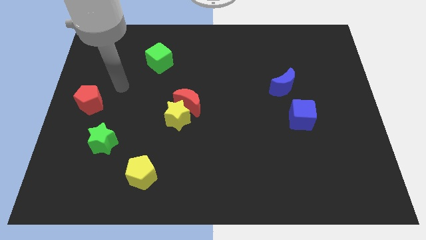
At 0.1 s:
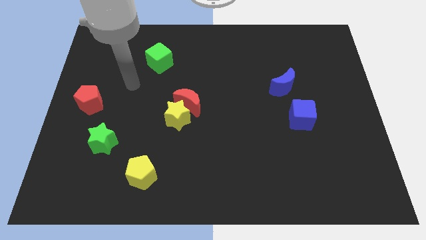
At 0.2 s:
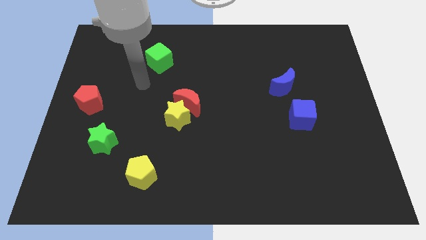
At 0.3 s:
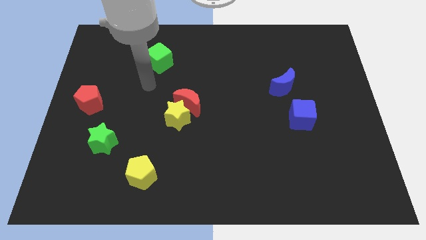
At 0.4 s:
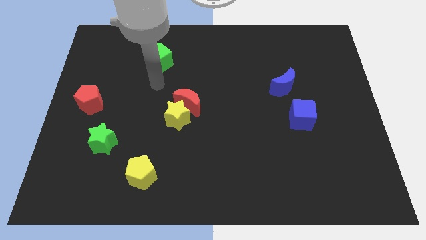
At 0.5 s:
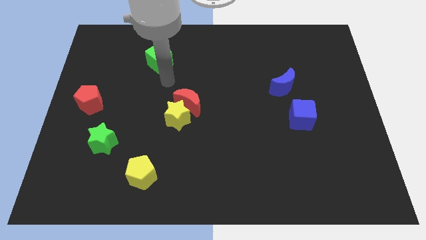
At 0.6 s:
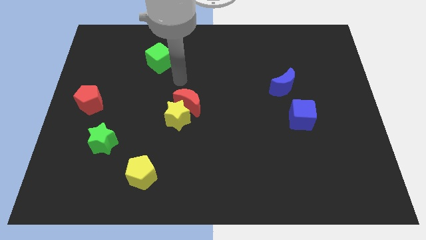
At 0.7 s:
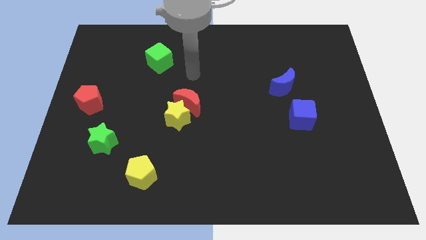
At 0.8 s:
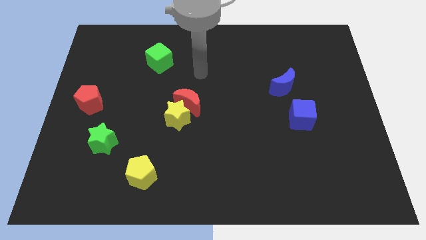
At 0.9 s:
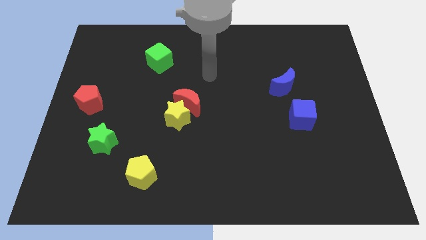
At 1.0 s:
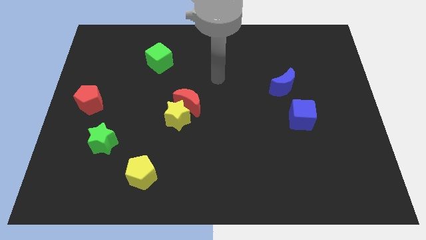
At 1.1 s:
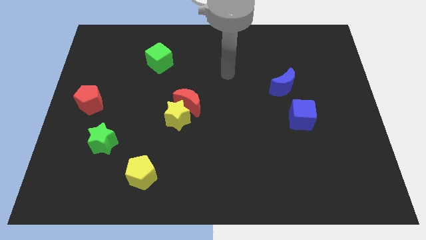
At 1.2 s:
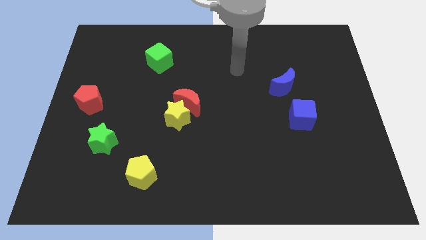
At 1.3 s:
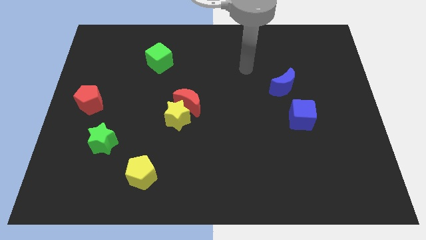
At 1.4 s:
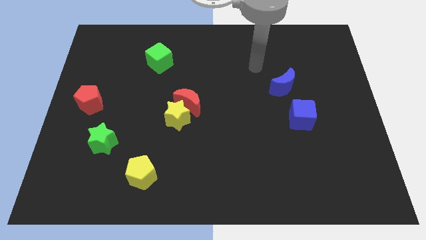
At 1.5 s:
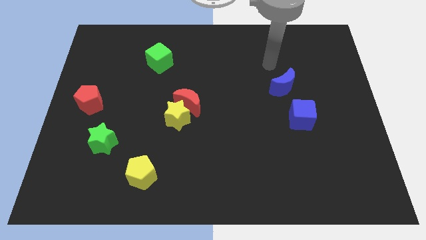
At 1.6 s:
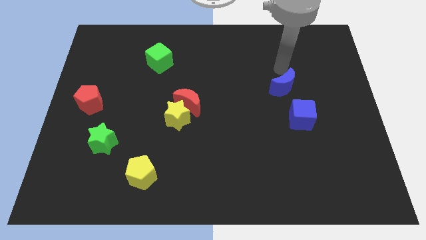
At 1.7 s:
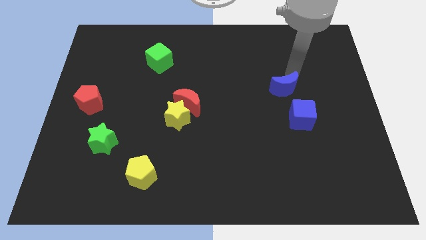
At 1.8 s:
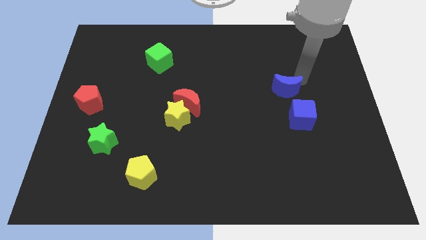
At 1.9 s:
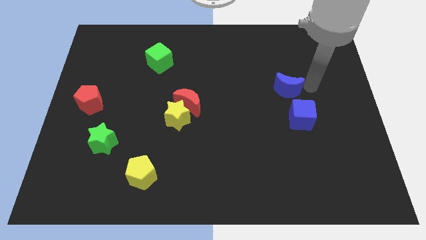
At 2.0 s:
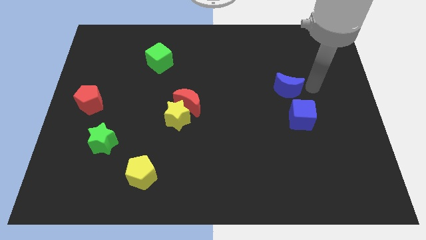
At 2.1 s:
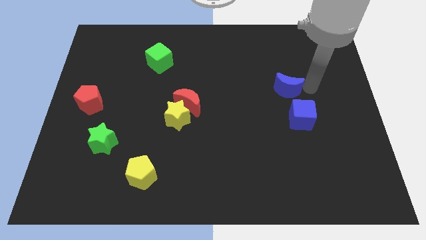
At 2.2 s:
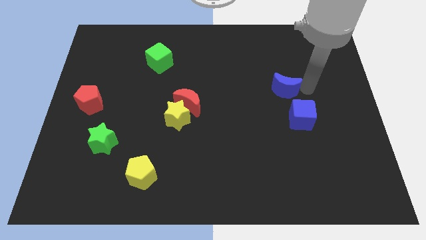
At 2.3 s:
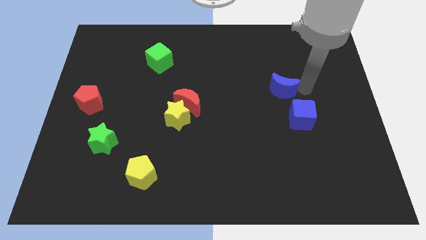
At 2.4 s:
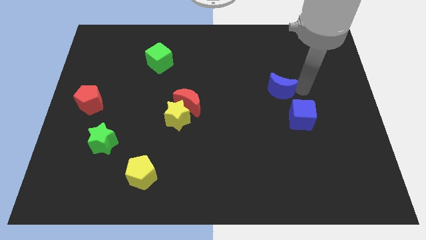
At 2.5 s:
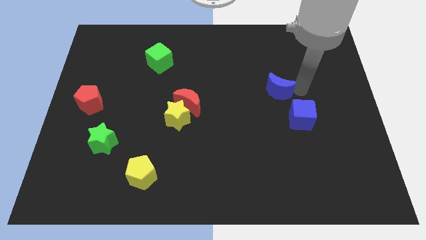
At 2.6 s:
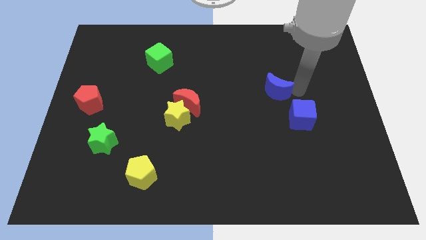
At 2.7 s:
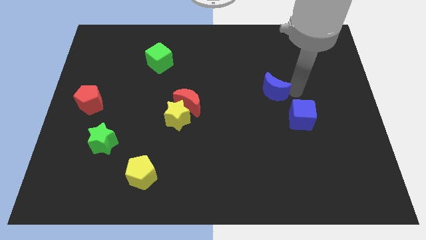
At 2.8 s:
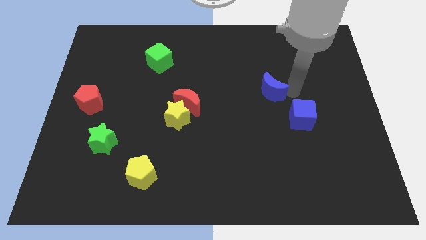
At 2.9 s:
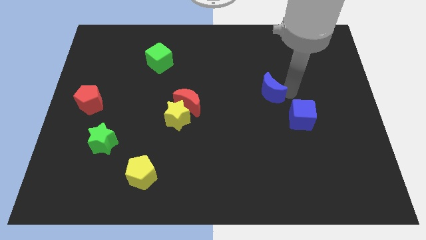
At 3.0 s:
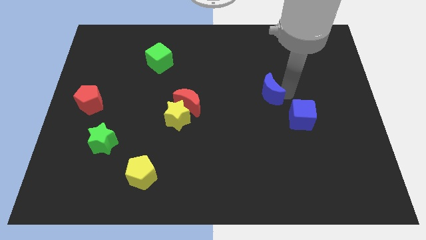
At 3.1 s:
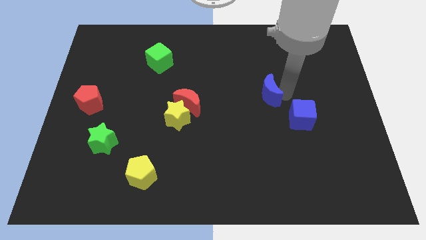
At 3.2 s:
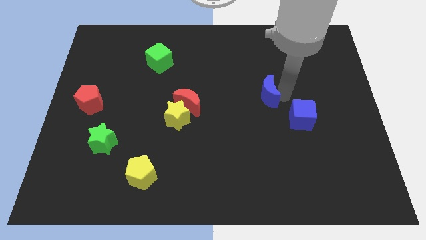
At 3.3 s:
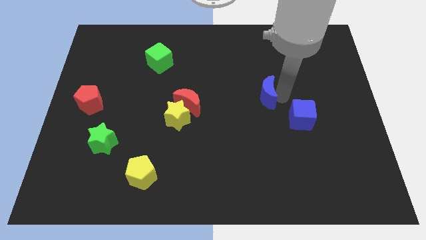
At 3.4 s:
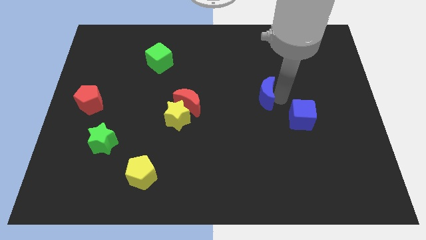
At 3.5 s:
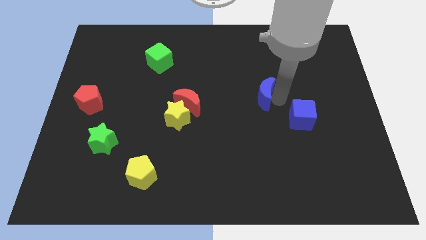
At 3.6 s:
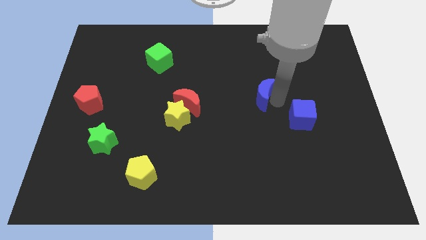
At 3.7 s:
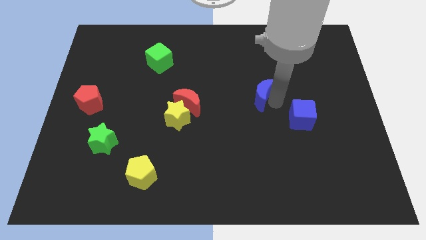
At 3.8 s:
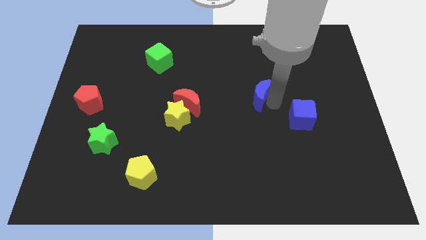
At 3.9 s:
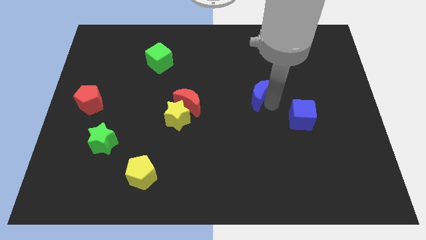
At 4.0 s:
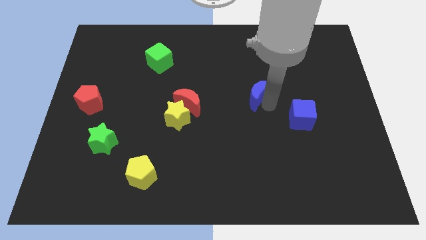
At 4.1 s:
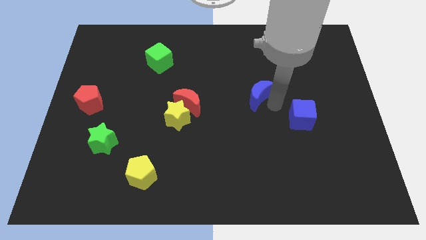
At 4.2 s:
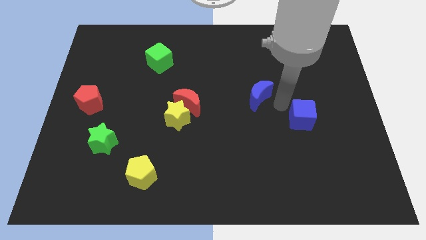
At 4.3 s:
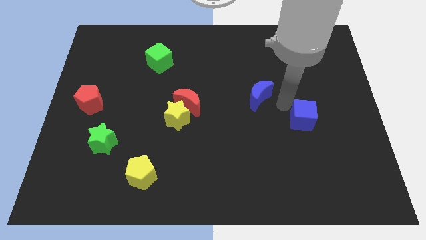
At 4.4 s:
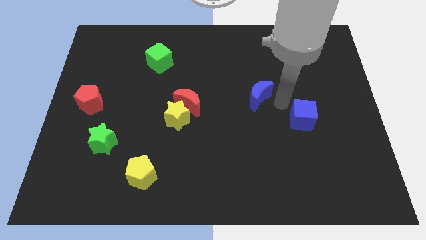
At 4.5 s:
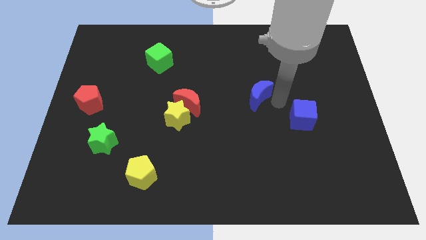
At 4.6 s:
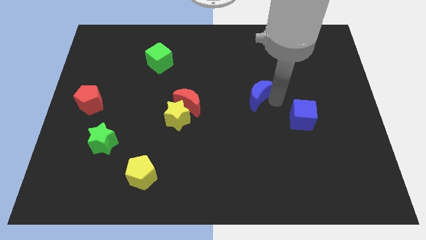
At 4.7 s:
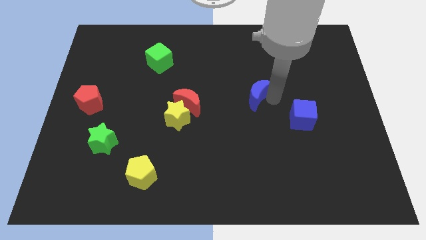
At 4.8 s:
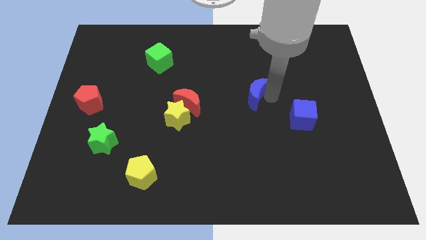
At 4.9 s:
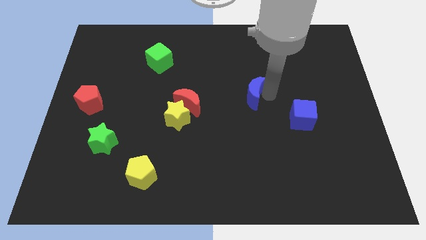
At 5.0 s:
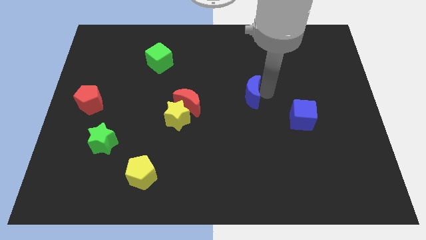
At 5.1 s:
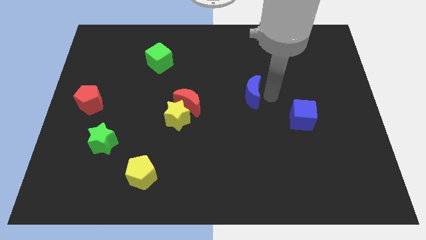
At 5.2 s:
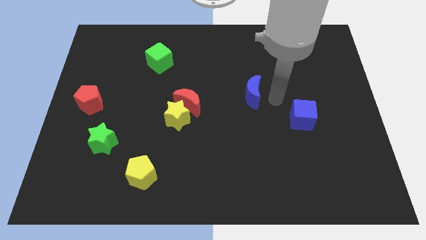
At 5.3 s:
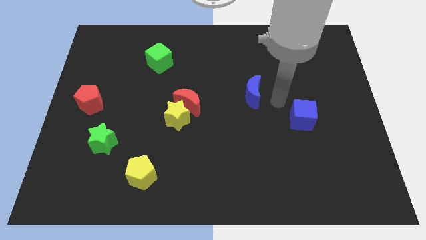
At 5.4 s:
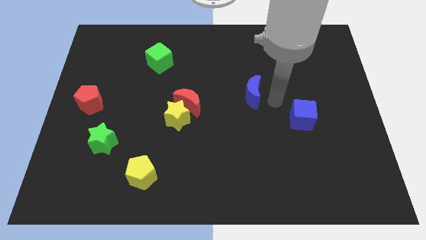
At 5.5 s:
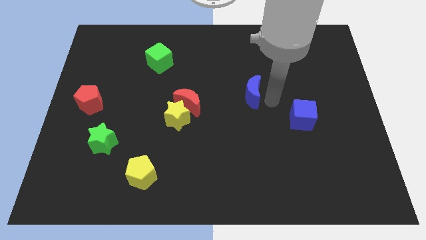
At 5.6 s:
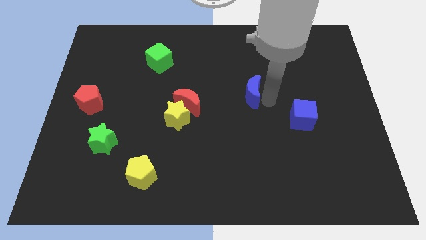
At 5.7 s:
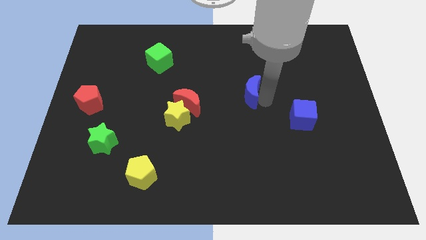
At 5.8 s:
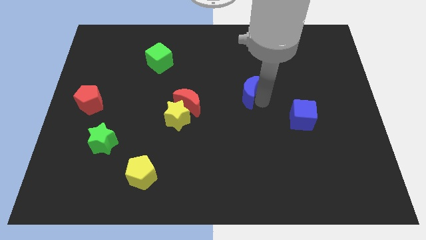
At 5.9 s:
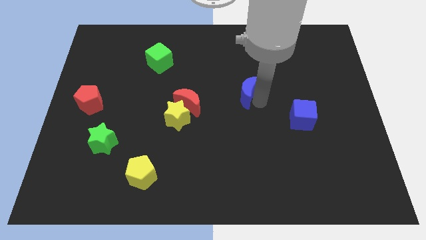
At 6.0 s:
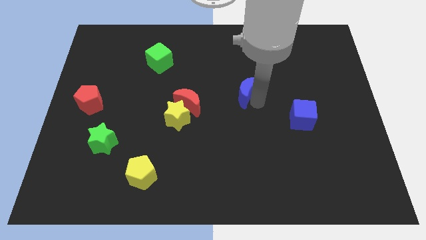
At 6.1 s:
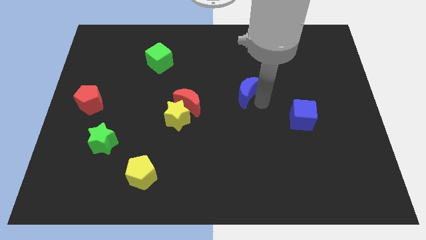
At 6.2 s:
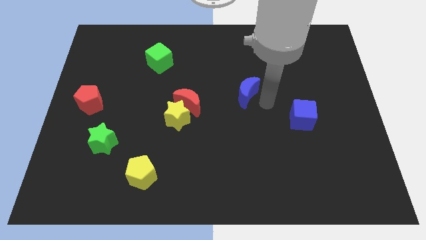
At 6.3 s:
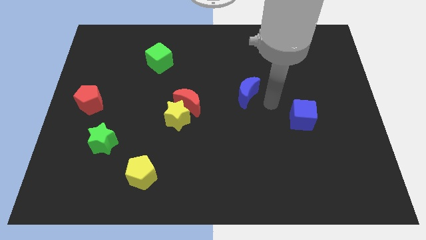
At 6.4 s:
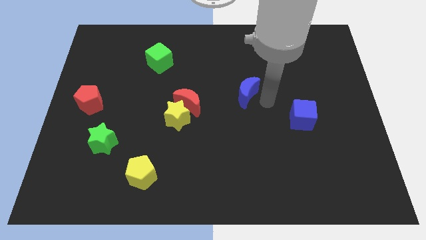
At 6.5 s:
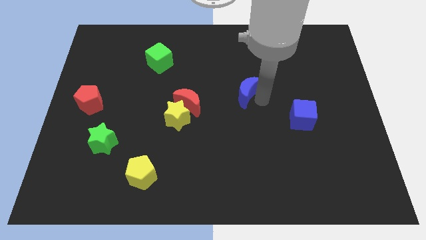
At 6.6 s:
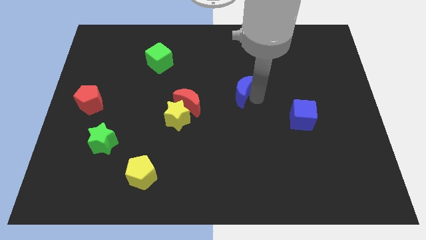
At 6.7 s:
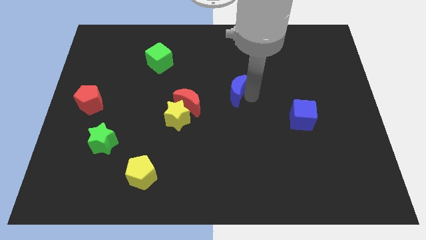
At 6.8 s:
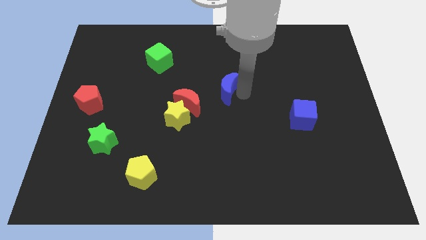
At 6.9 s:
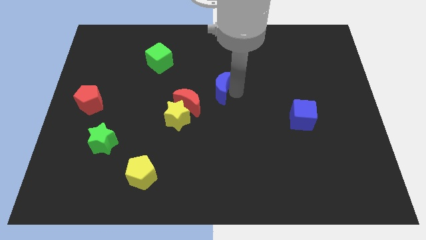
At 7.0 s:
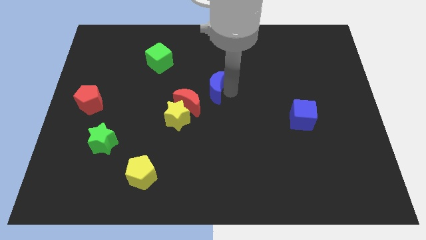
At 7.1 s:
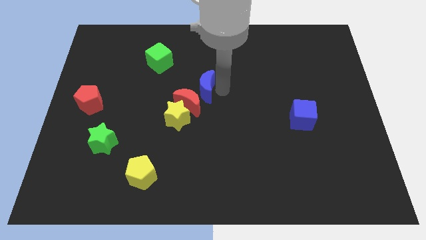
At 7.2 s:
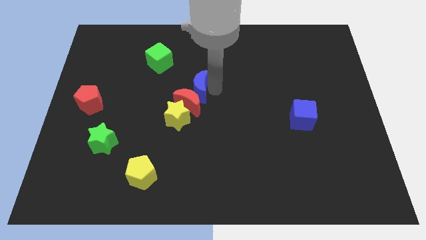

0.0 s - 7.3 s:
move the blue moon to the left

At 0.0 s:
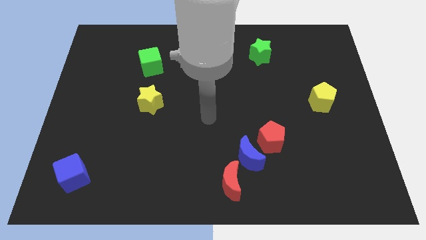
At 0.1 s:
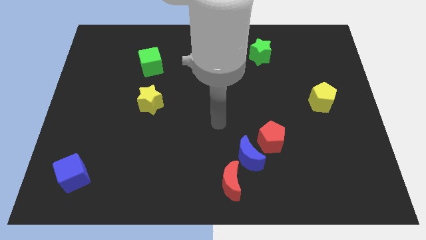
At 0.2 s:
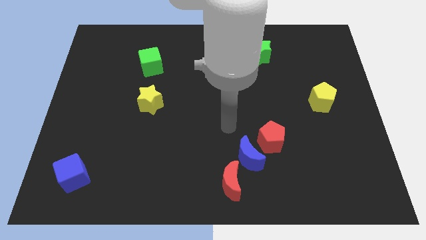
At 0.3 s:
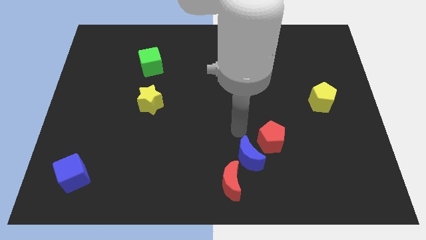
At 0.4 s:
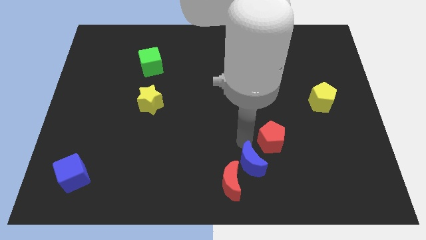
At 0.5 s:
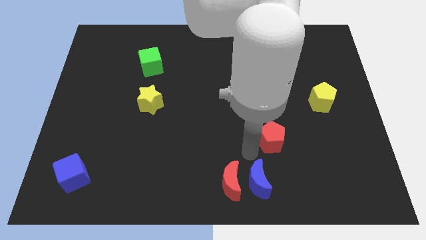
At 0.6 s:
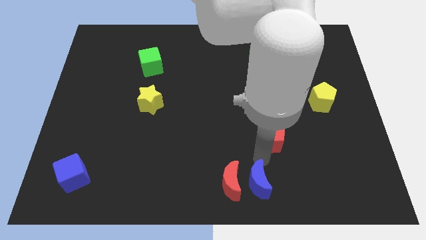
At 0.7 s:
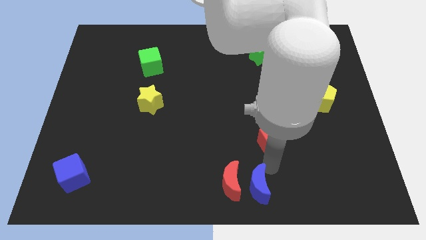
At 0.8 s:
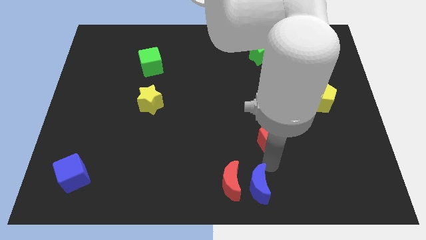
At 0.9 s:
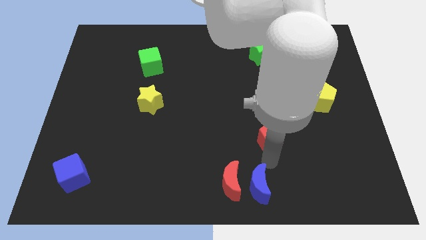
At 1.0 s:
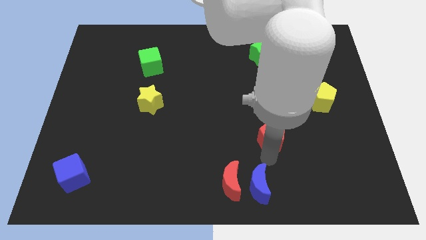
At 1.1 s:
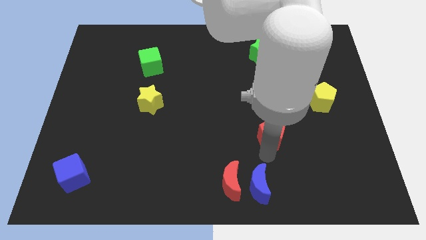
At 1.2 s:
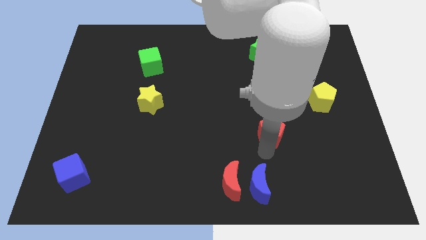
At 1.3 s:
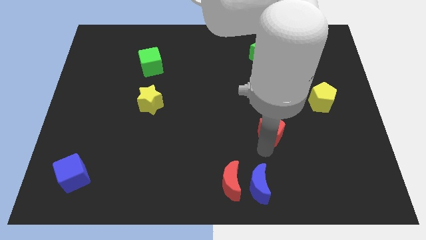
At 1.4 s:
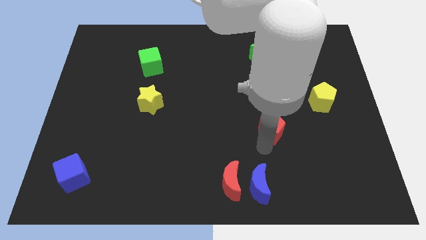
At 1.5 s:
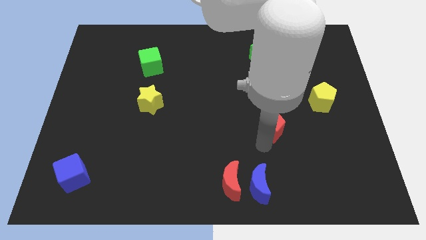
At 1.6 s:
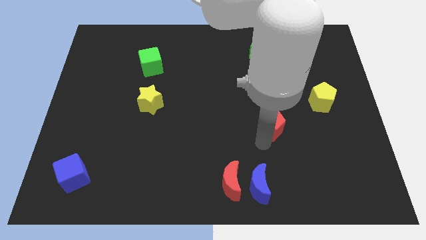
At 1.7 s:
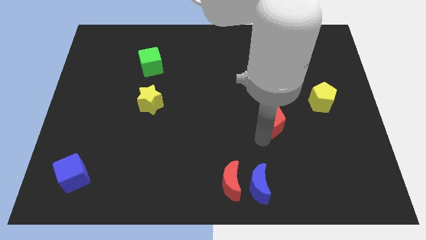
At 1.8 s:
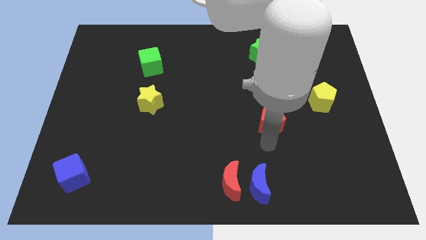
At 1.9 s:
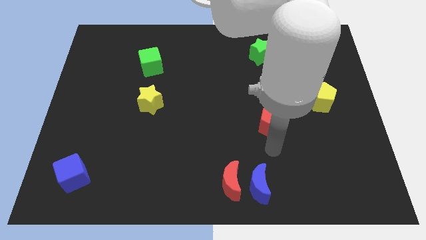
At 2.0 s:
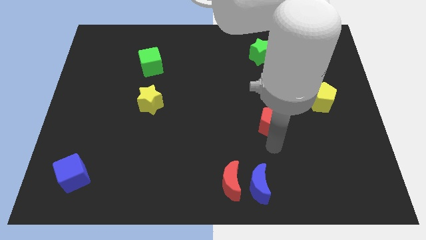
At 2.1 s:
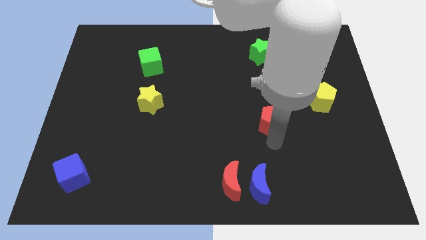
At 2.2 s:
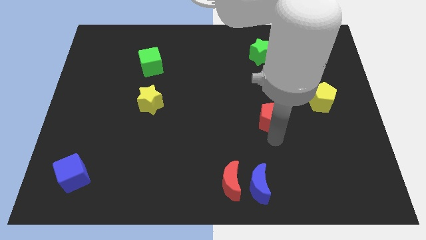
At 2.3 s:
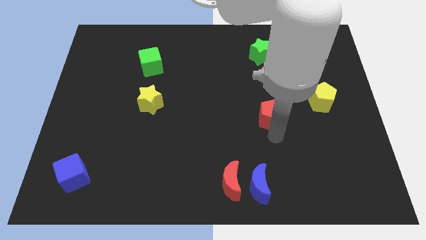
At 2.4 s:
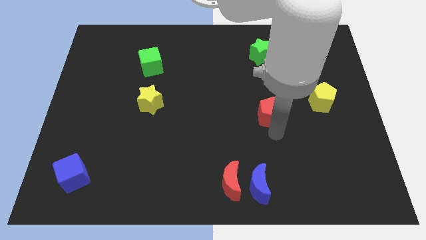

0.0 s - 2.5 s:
move the red pentagon somewhat up
